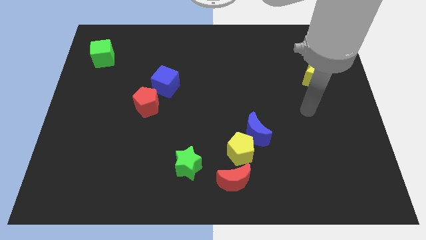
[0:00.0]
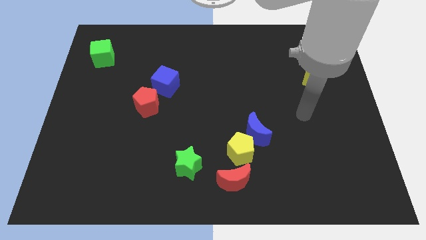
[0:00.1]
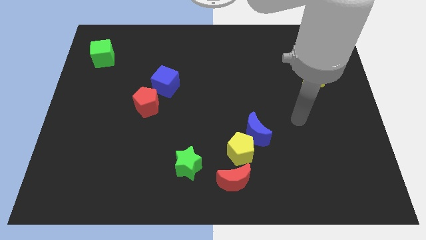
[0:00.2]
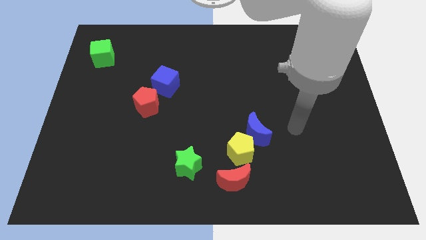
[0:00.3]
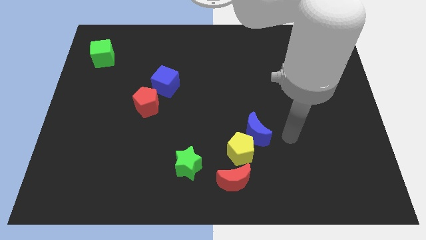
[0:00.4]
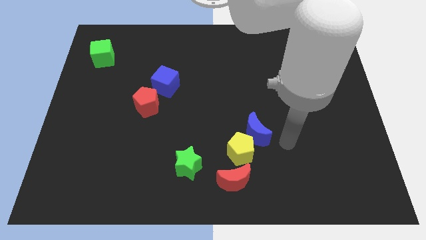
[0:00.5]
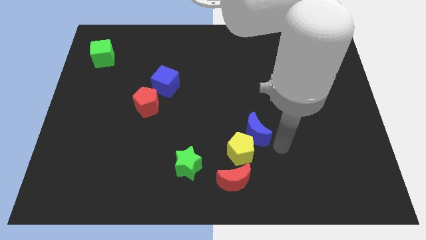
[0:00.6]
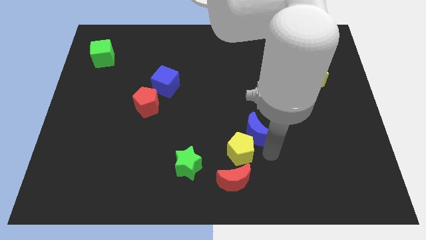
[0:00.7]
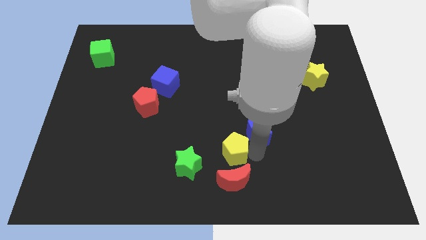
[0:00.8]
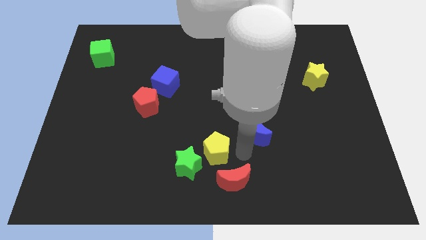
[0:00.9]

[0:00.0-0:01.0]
separate the blue moon from the yellow pentagon

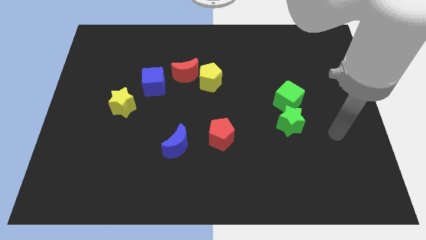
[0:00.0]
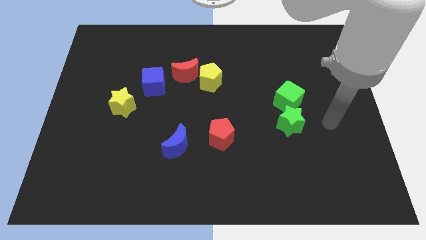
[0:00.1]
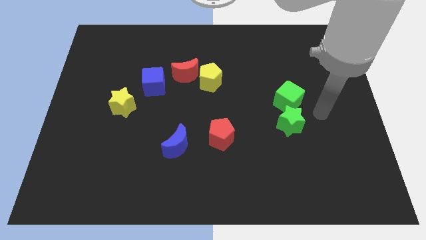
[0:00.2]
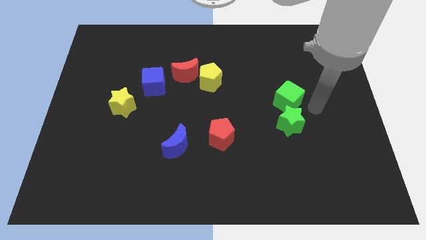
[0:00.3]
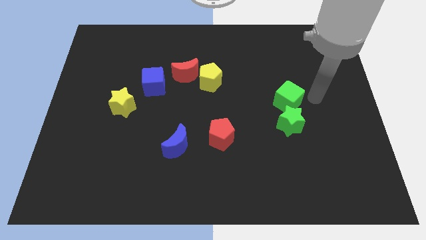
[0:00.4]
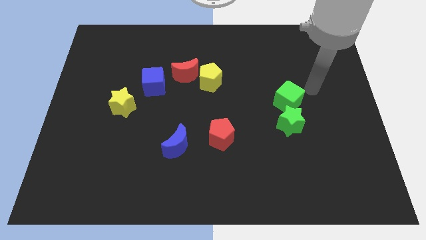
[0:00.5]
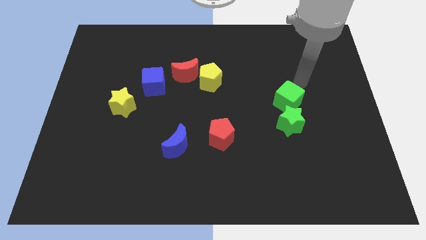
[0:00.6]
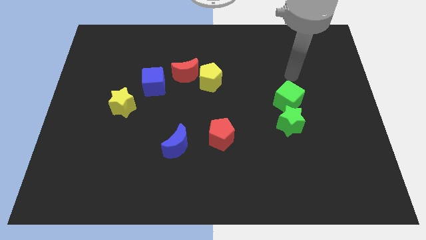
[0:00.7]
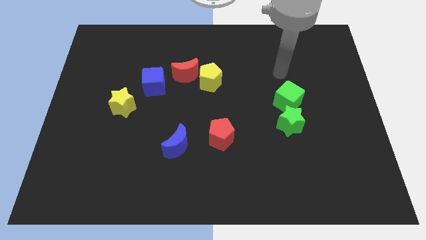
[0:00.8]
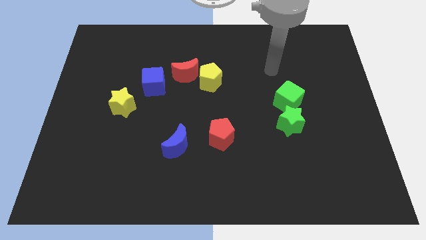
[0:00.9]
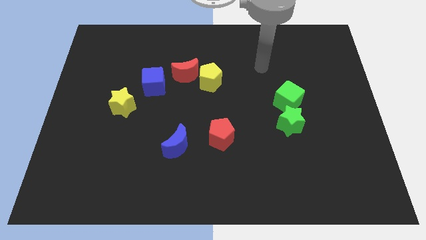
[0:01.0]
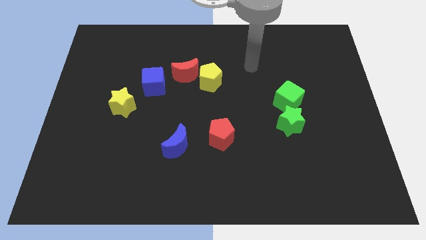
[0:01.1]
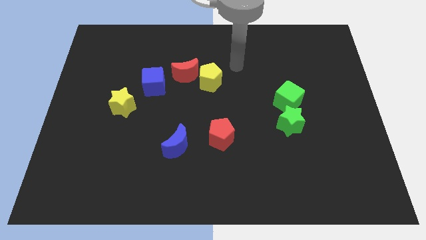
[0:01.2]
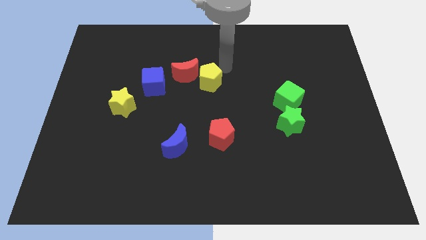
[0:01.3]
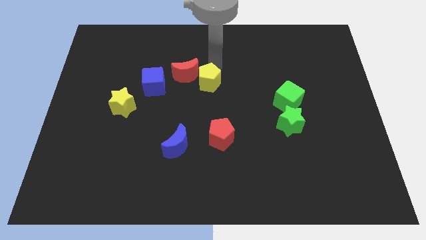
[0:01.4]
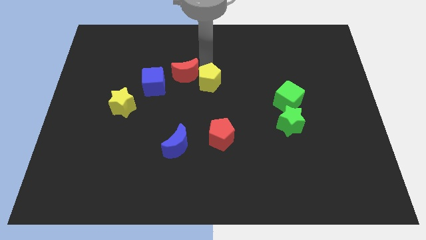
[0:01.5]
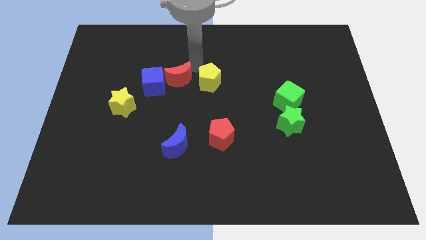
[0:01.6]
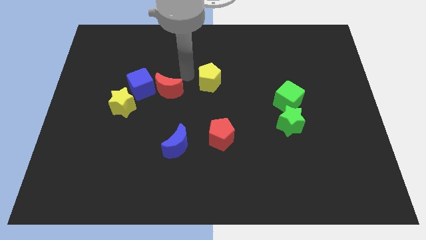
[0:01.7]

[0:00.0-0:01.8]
move the yellow pentagon away from the red moon

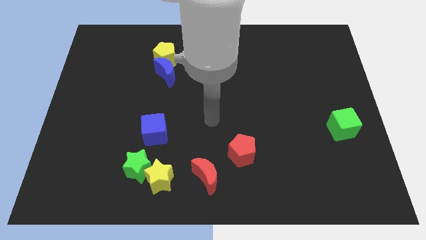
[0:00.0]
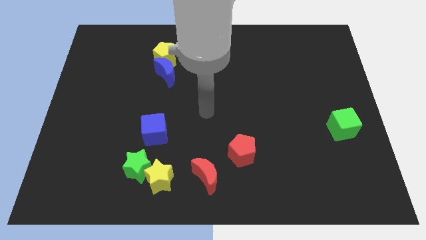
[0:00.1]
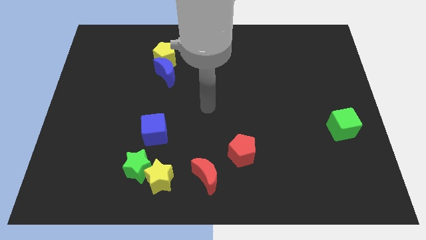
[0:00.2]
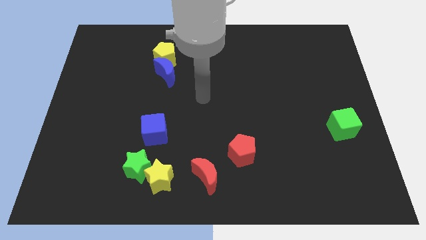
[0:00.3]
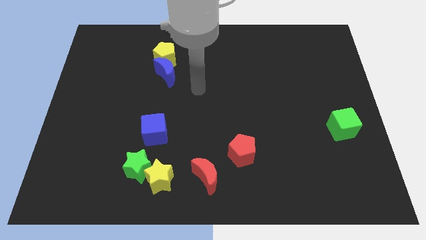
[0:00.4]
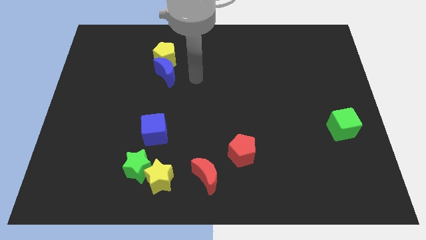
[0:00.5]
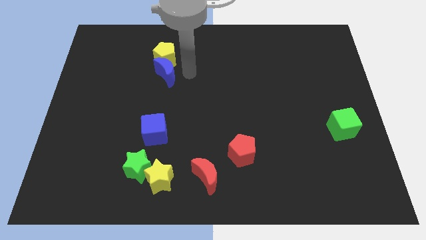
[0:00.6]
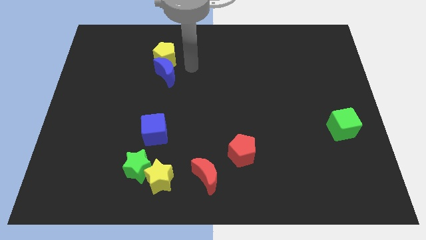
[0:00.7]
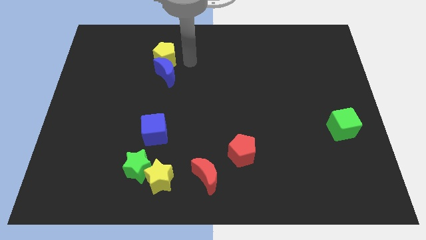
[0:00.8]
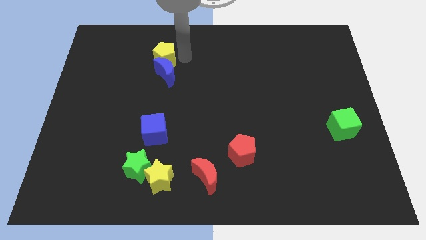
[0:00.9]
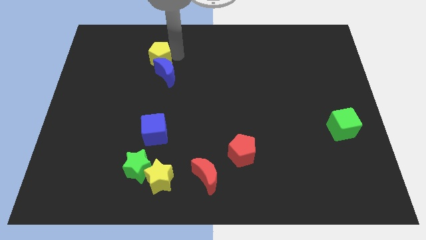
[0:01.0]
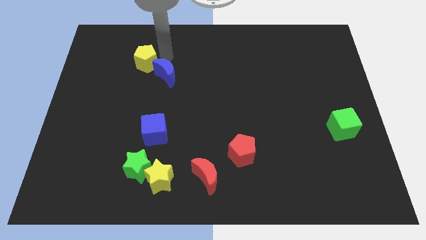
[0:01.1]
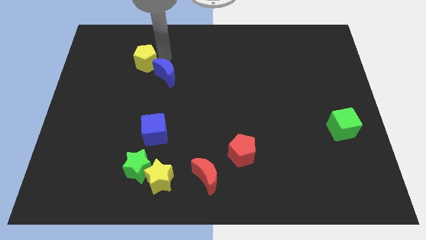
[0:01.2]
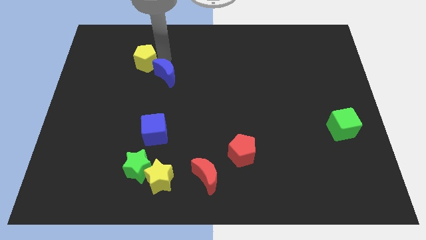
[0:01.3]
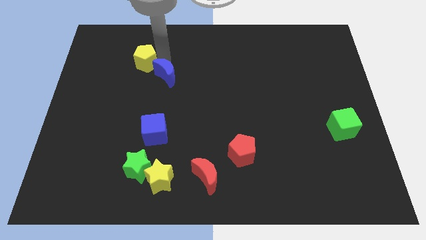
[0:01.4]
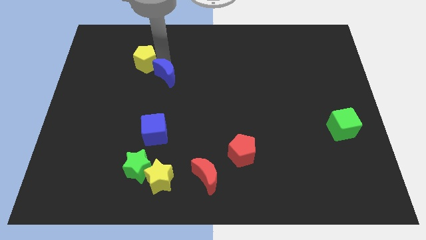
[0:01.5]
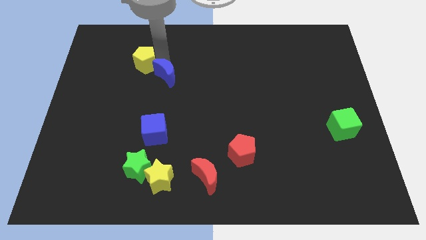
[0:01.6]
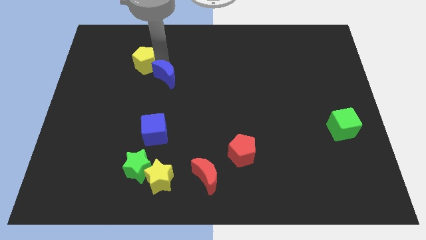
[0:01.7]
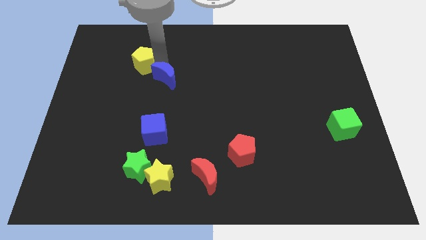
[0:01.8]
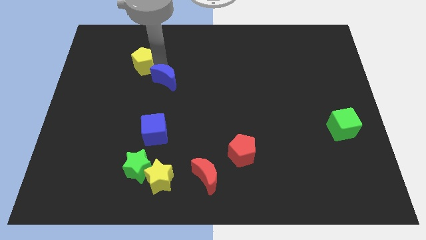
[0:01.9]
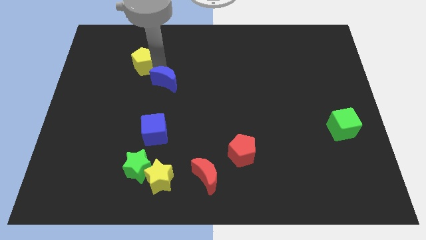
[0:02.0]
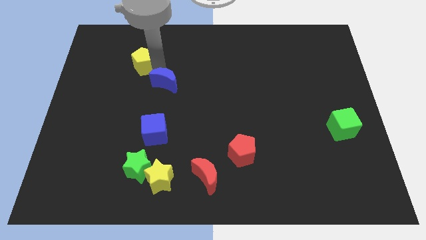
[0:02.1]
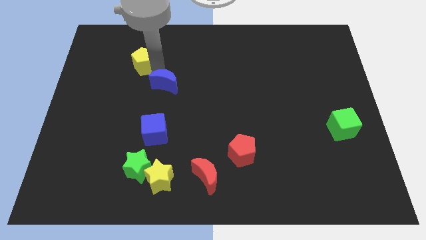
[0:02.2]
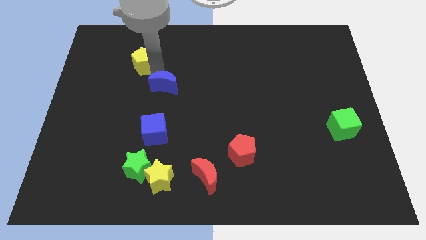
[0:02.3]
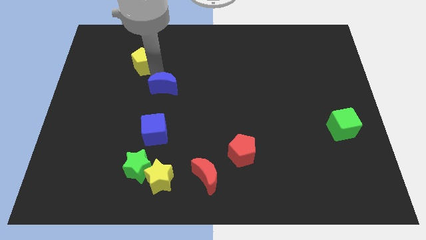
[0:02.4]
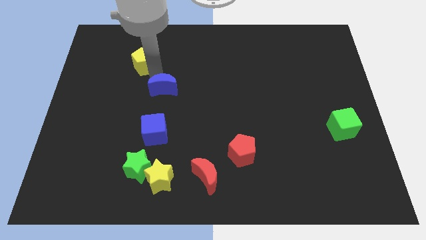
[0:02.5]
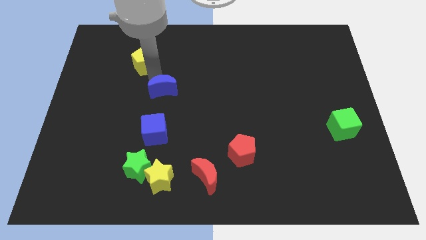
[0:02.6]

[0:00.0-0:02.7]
move the blue moon away from the yellow pentagon

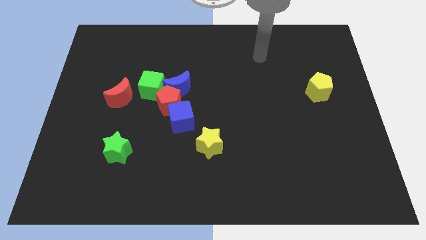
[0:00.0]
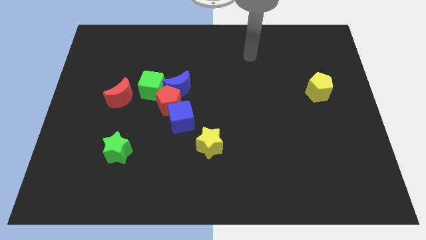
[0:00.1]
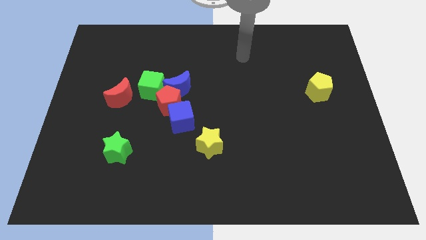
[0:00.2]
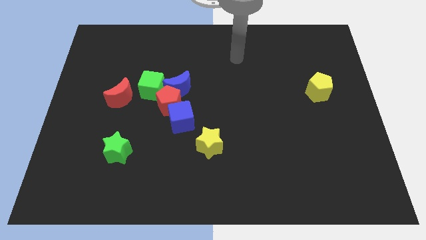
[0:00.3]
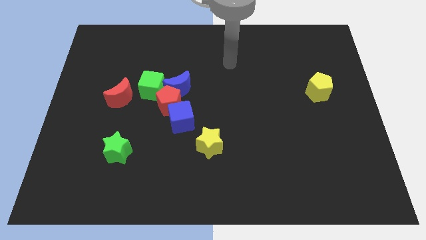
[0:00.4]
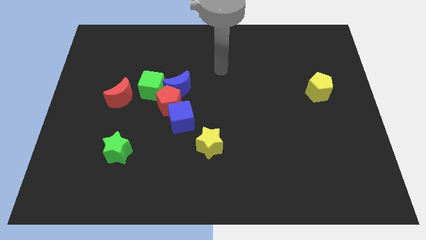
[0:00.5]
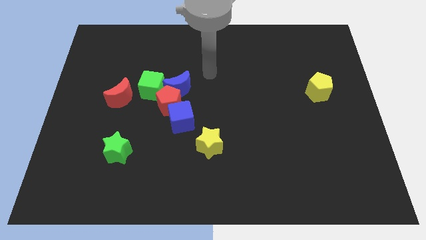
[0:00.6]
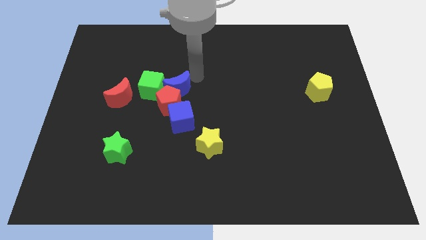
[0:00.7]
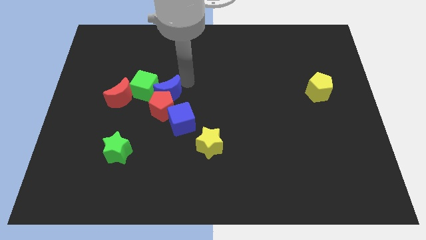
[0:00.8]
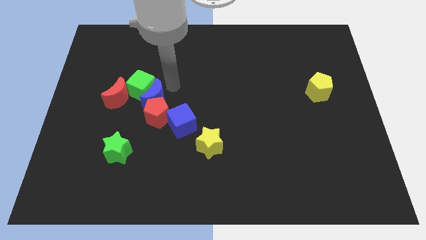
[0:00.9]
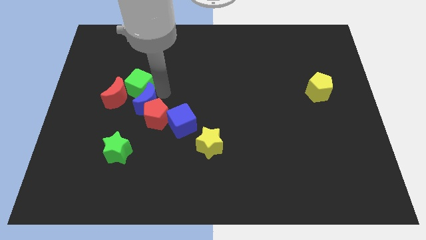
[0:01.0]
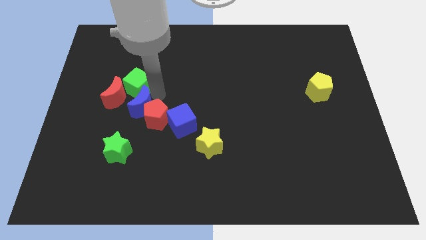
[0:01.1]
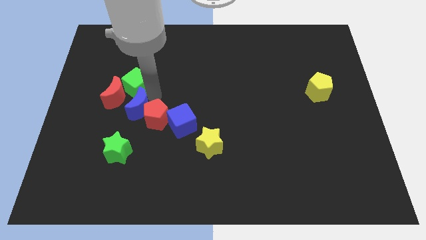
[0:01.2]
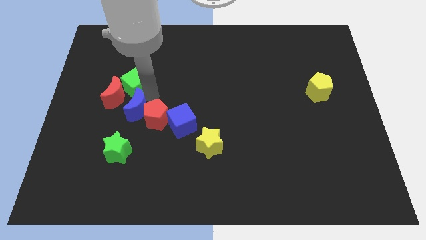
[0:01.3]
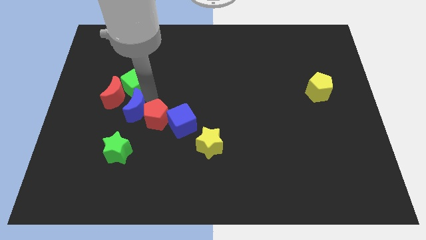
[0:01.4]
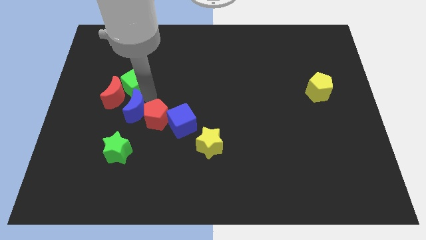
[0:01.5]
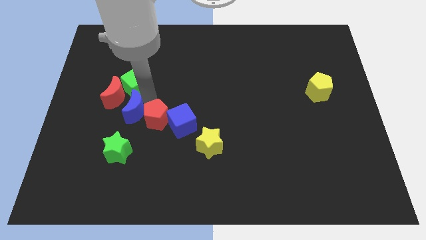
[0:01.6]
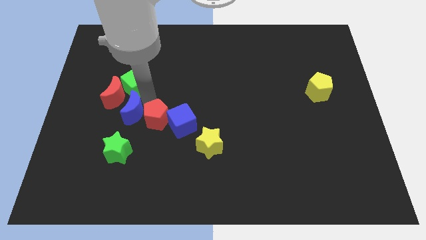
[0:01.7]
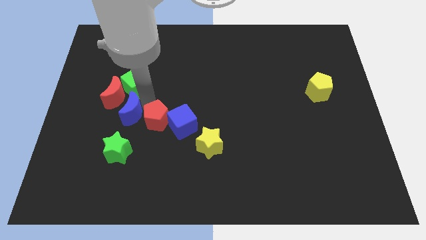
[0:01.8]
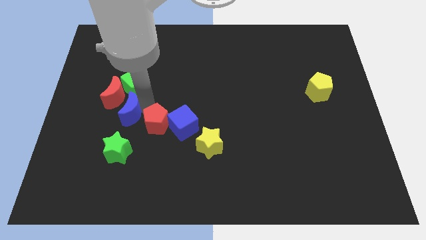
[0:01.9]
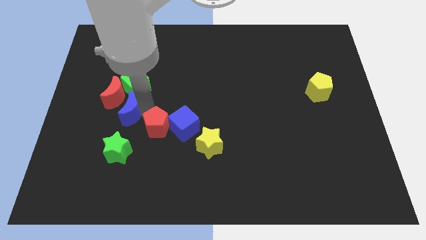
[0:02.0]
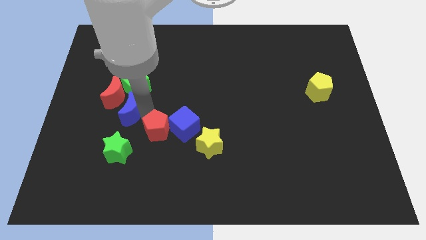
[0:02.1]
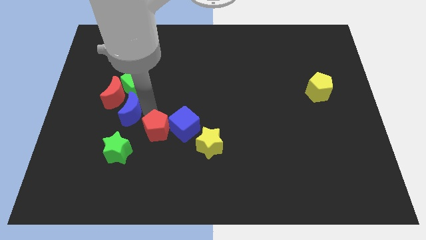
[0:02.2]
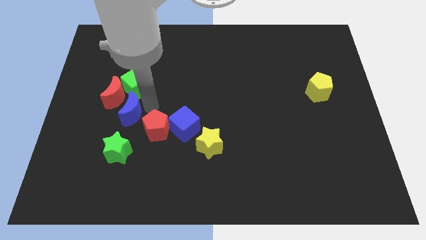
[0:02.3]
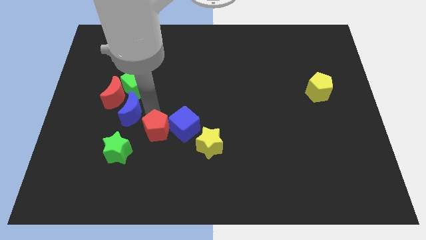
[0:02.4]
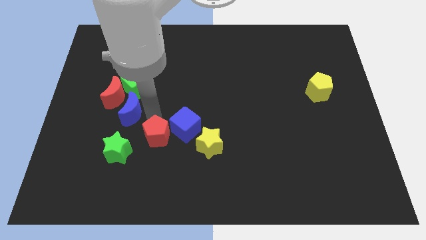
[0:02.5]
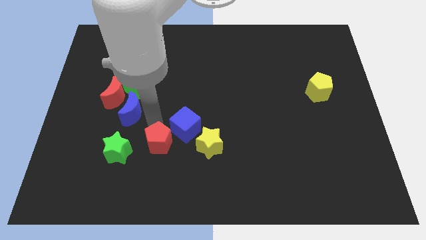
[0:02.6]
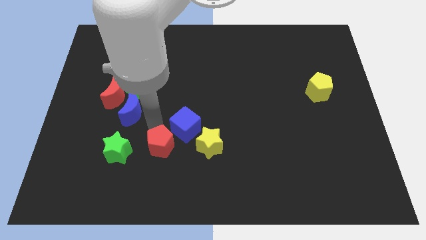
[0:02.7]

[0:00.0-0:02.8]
pull the red pentagon apart from the group

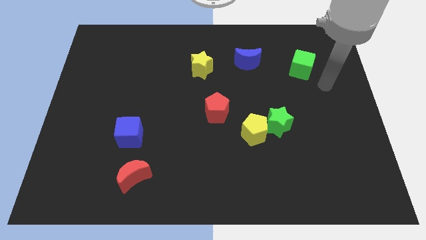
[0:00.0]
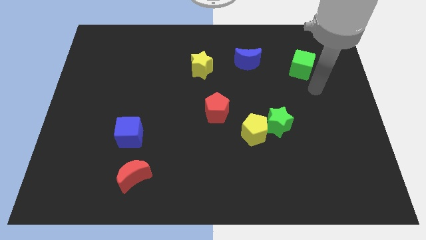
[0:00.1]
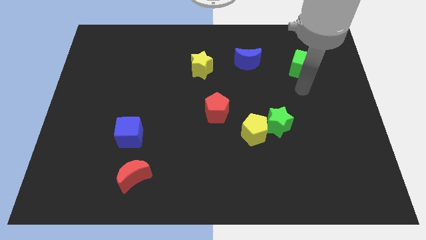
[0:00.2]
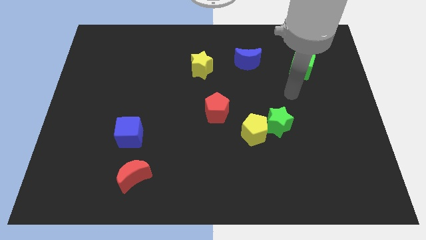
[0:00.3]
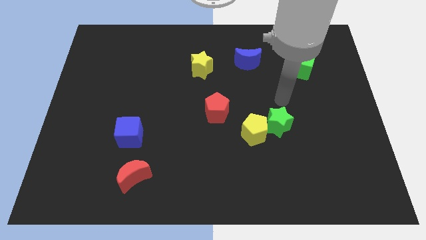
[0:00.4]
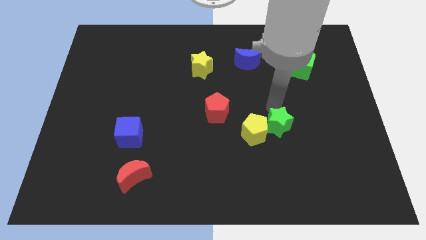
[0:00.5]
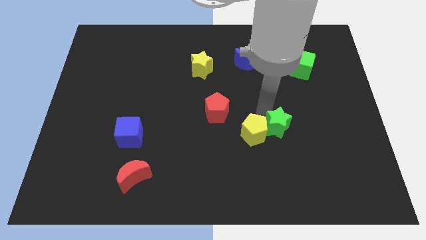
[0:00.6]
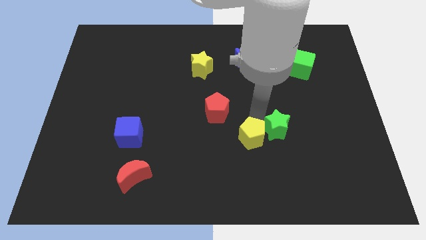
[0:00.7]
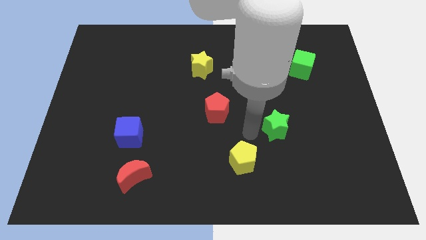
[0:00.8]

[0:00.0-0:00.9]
move the green star away from the yellow pentagon

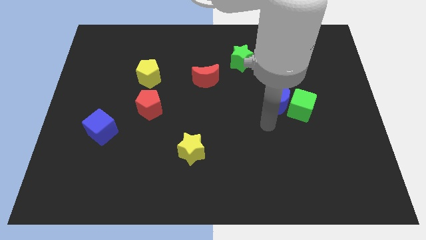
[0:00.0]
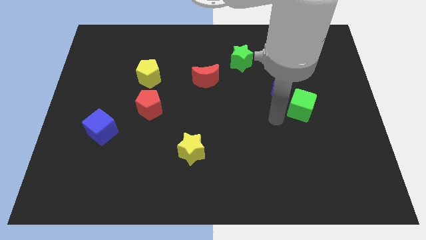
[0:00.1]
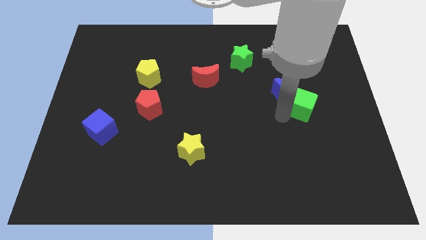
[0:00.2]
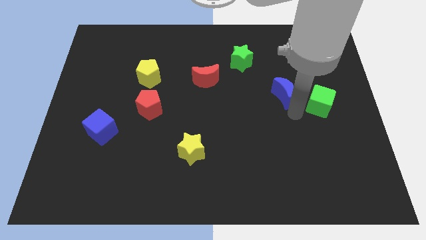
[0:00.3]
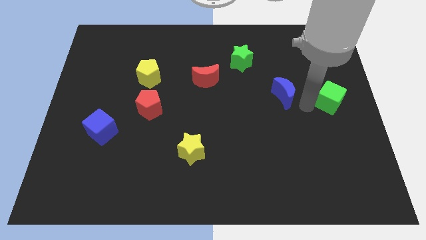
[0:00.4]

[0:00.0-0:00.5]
separate the blue moon from the green cube
